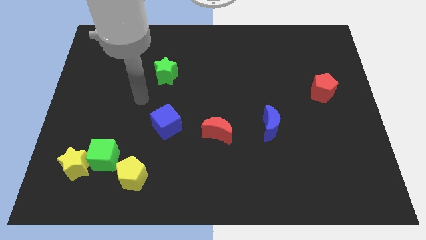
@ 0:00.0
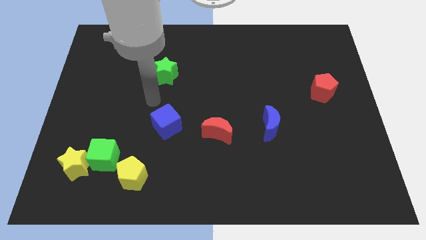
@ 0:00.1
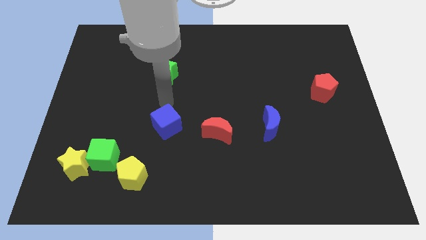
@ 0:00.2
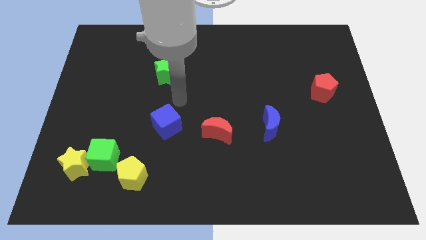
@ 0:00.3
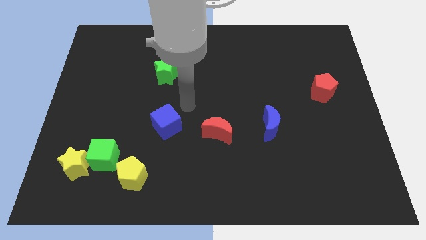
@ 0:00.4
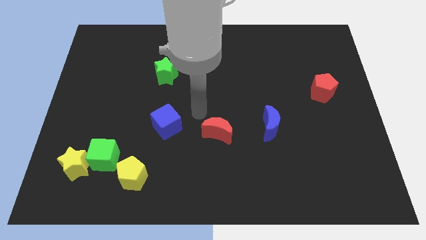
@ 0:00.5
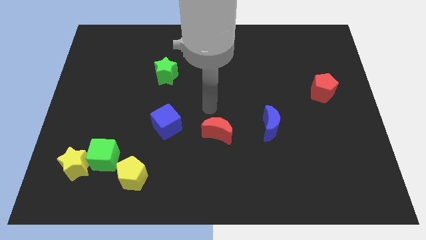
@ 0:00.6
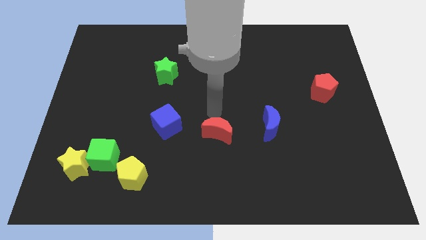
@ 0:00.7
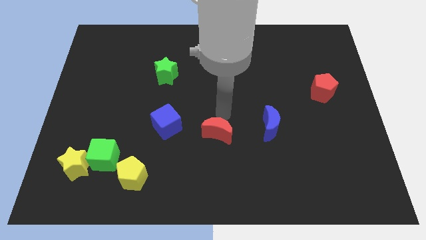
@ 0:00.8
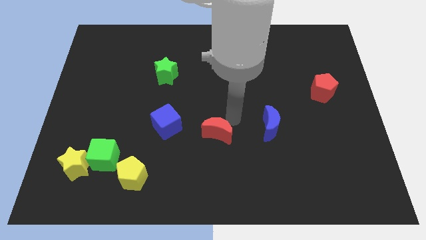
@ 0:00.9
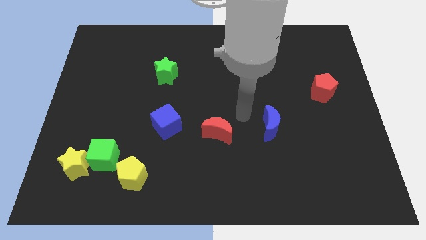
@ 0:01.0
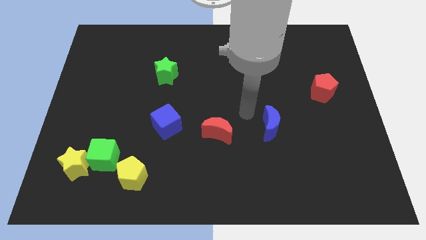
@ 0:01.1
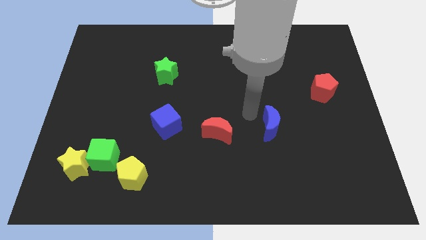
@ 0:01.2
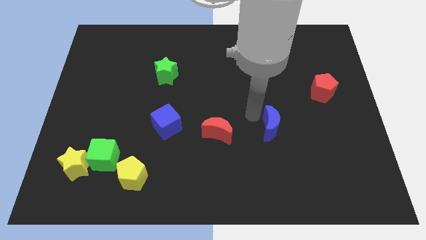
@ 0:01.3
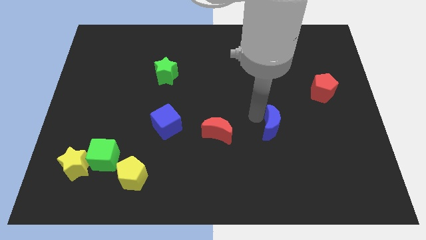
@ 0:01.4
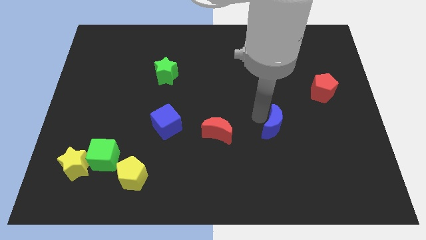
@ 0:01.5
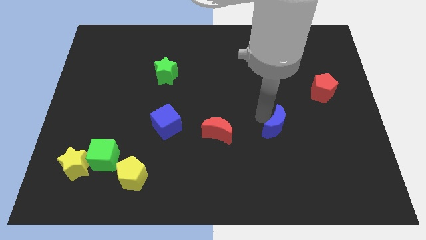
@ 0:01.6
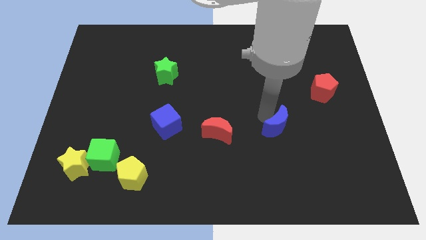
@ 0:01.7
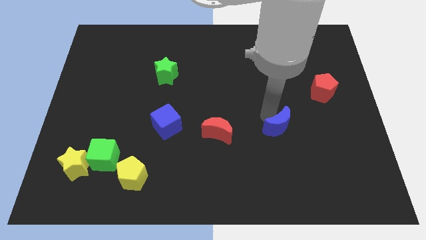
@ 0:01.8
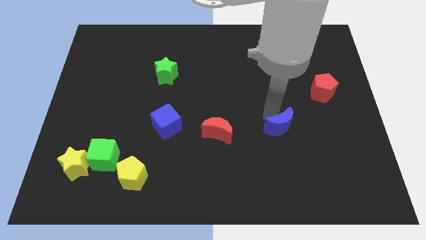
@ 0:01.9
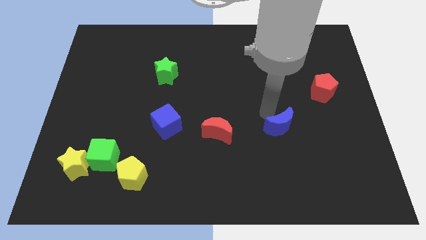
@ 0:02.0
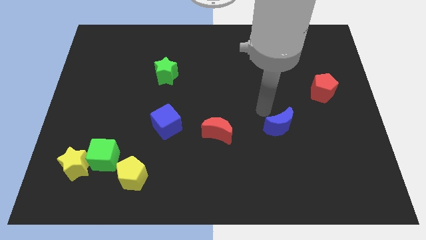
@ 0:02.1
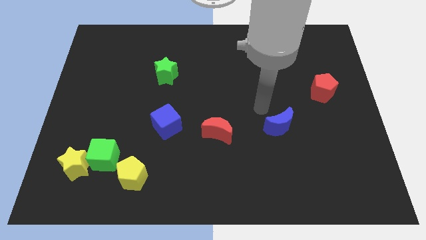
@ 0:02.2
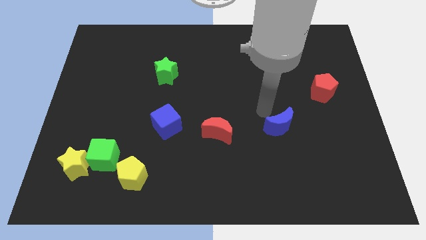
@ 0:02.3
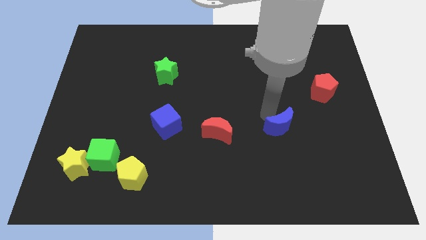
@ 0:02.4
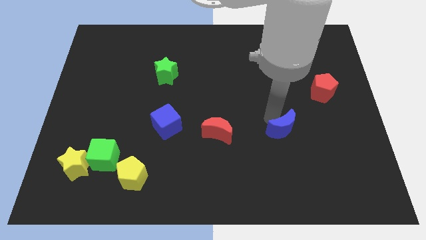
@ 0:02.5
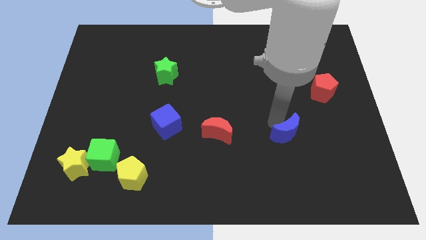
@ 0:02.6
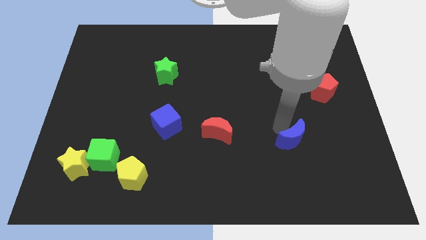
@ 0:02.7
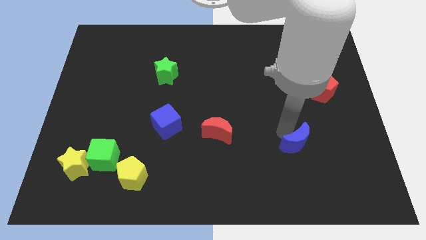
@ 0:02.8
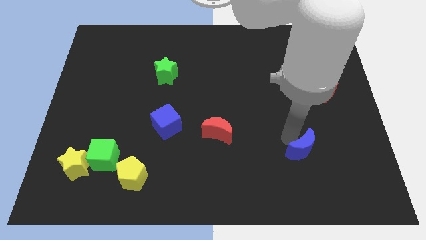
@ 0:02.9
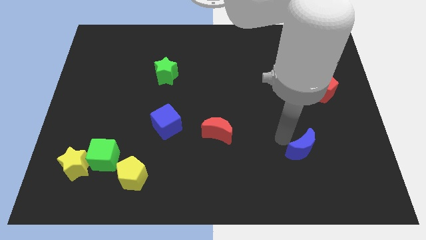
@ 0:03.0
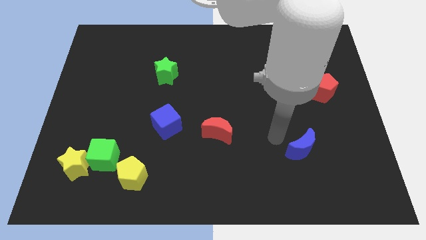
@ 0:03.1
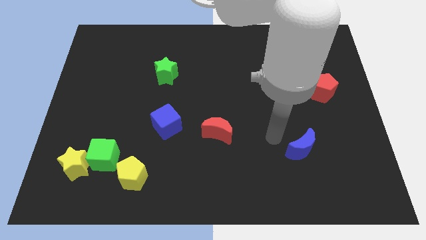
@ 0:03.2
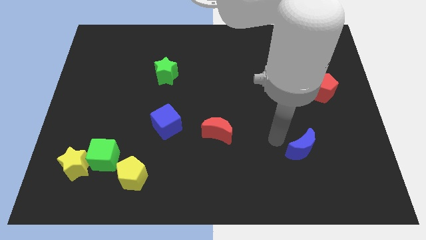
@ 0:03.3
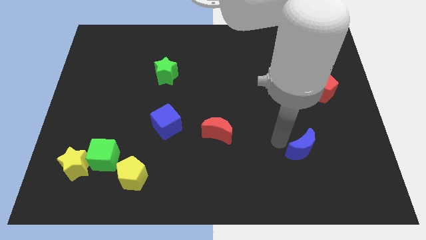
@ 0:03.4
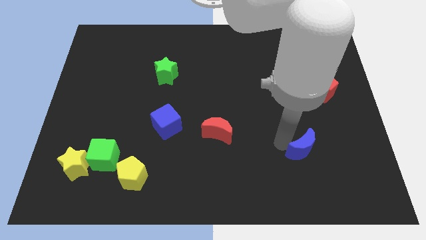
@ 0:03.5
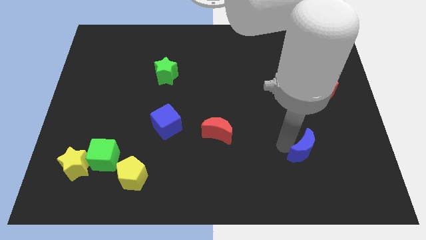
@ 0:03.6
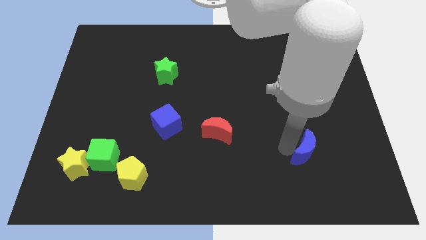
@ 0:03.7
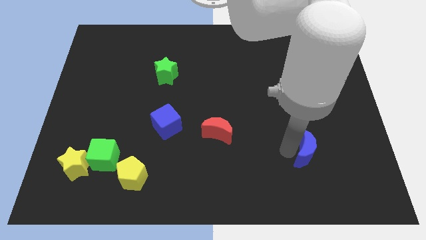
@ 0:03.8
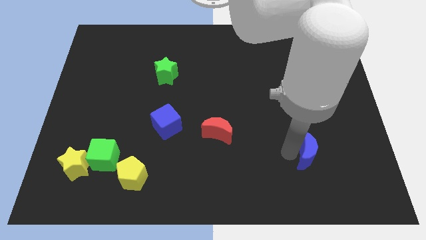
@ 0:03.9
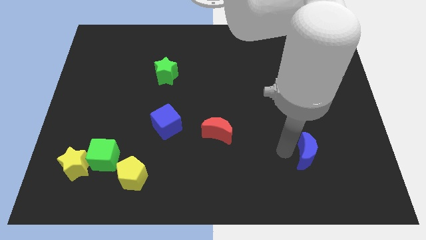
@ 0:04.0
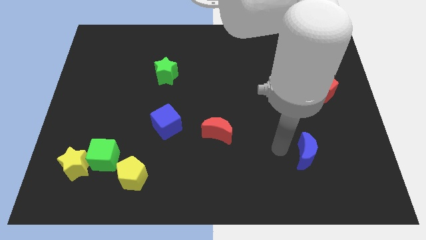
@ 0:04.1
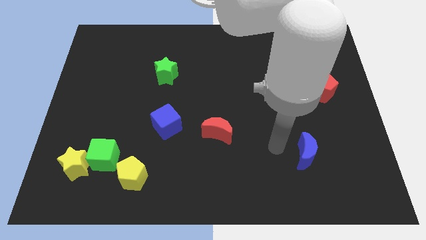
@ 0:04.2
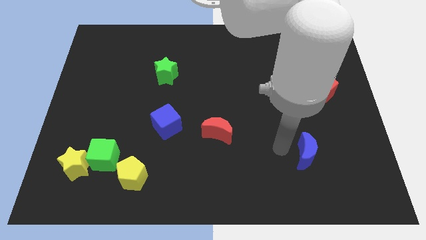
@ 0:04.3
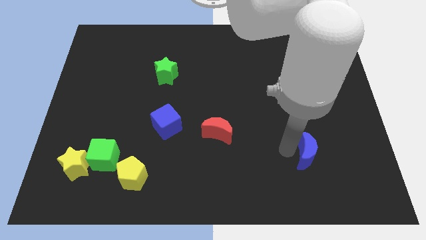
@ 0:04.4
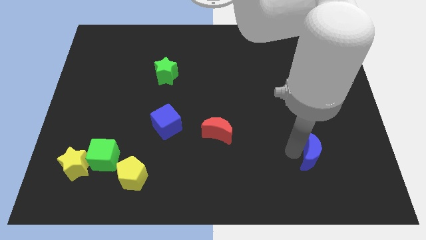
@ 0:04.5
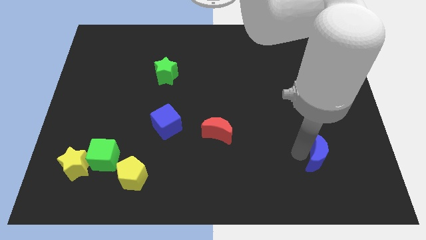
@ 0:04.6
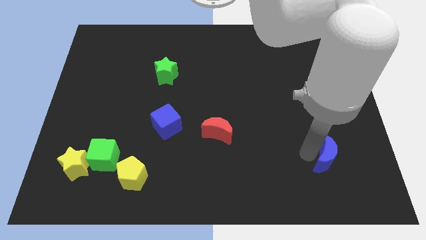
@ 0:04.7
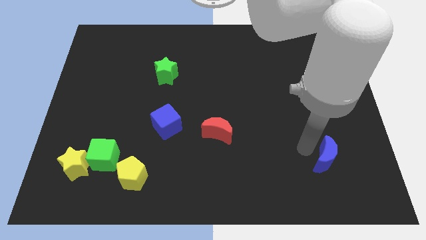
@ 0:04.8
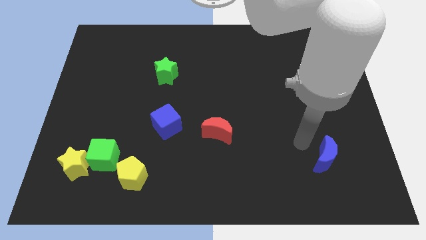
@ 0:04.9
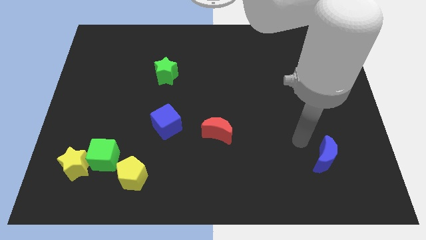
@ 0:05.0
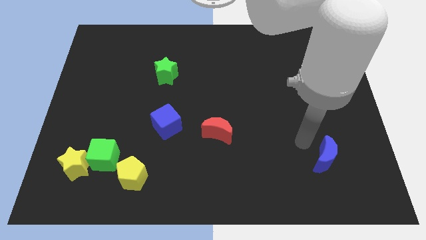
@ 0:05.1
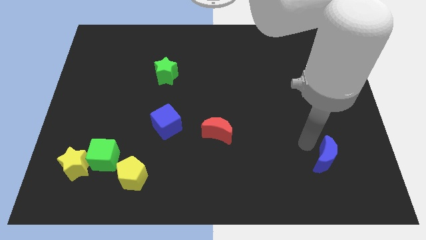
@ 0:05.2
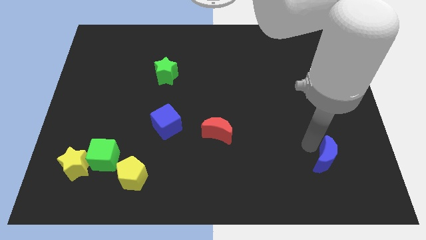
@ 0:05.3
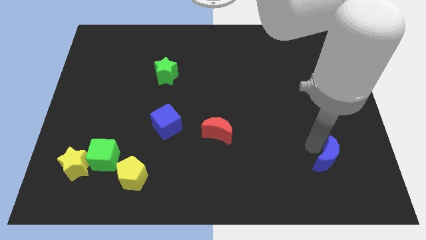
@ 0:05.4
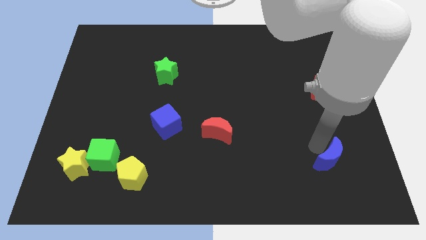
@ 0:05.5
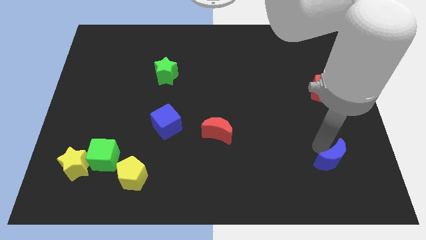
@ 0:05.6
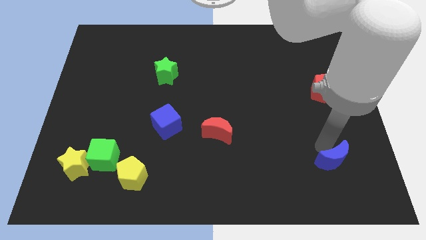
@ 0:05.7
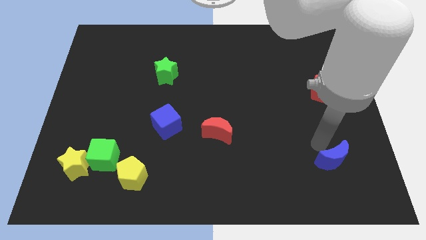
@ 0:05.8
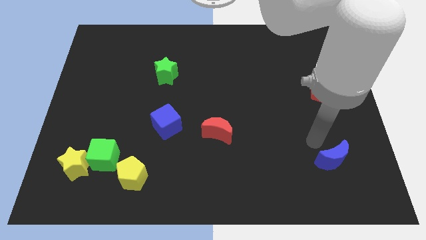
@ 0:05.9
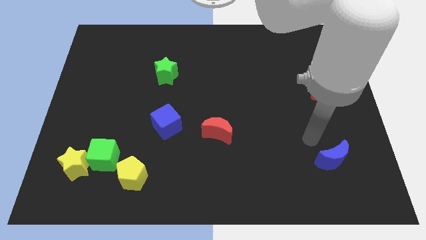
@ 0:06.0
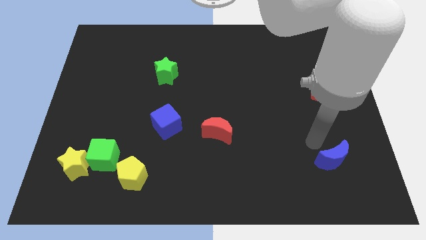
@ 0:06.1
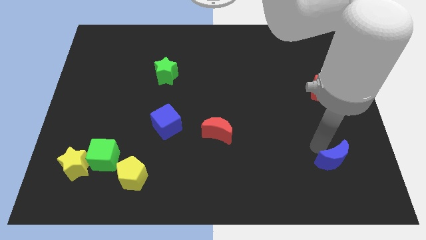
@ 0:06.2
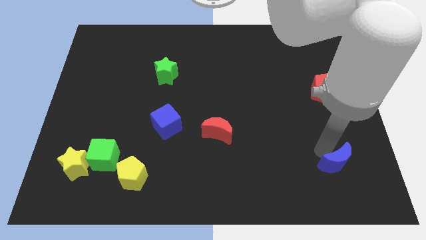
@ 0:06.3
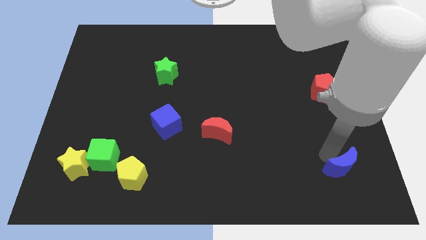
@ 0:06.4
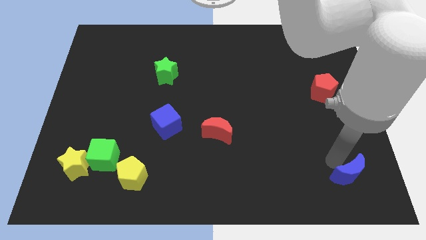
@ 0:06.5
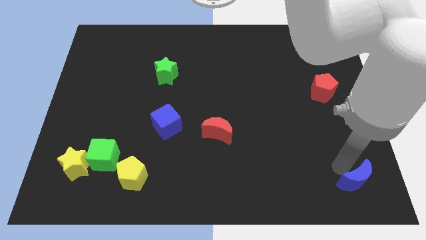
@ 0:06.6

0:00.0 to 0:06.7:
push the blue moon to the bottom right of the board
